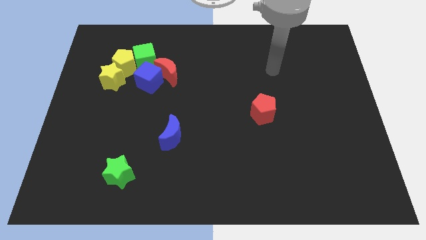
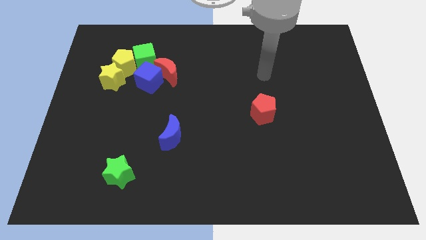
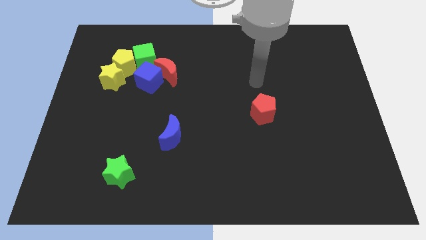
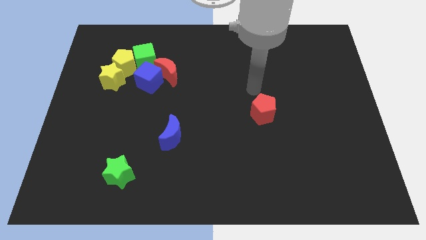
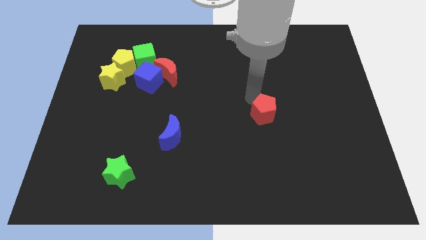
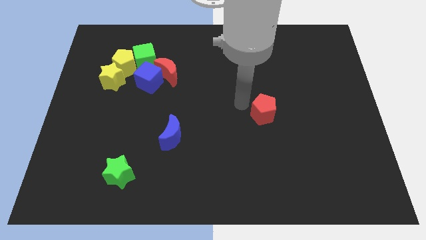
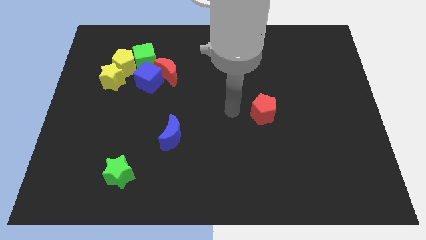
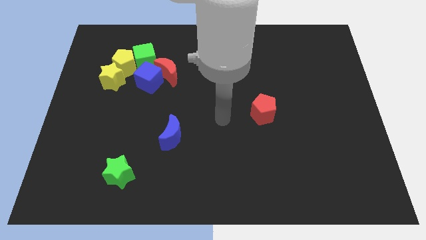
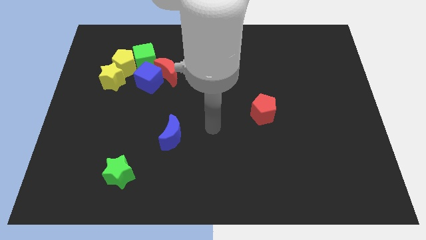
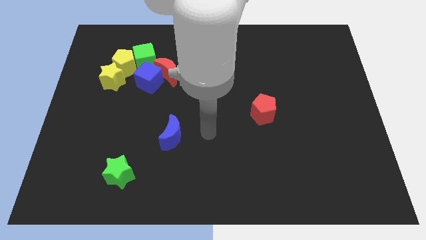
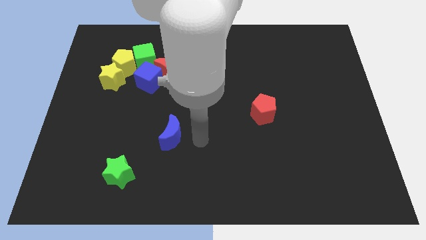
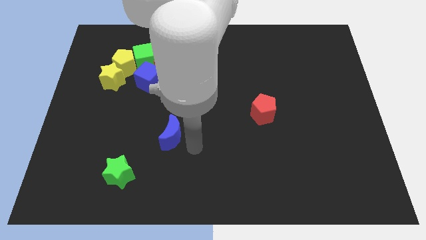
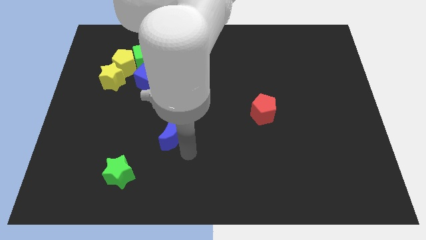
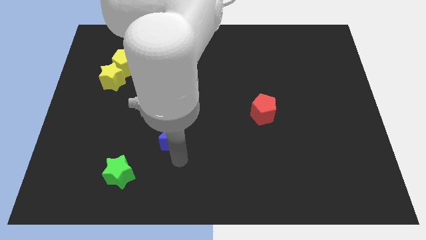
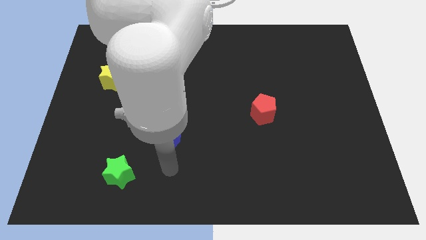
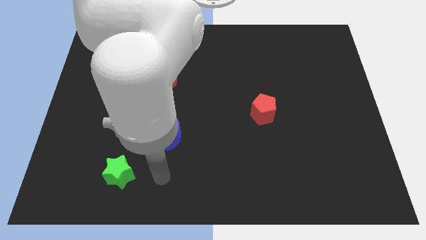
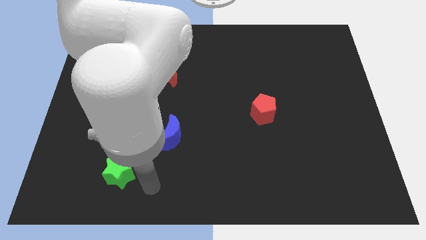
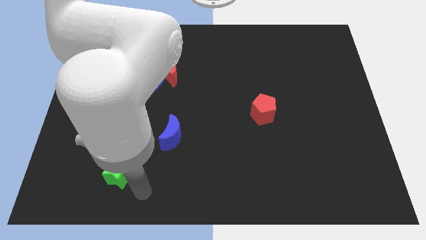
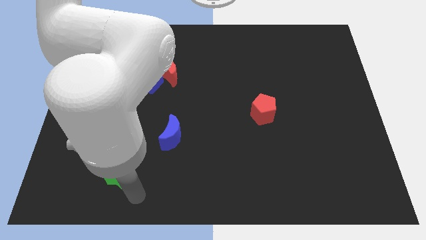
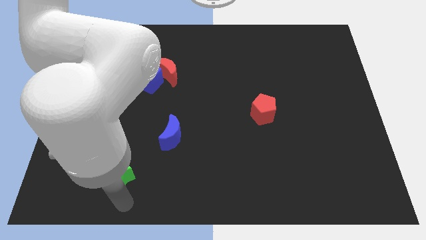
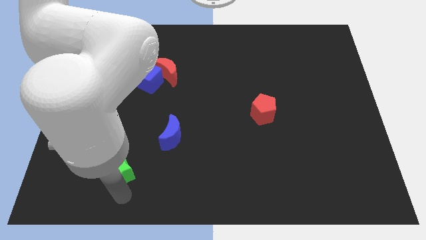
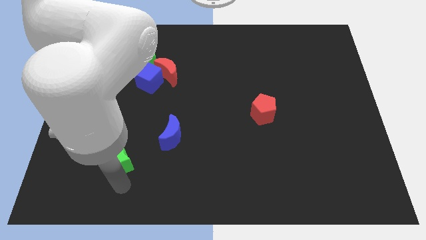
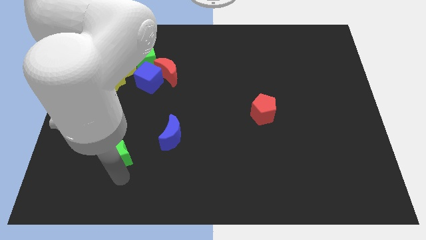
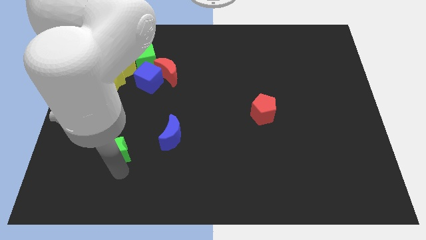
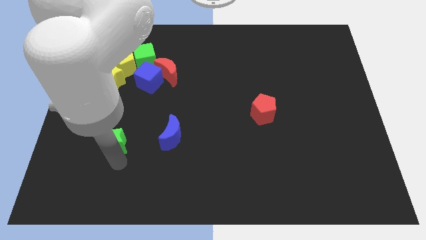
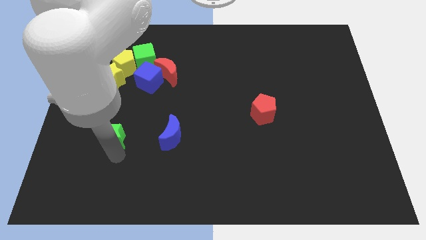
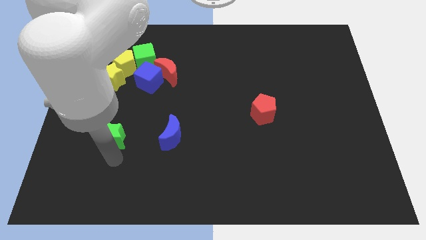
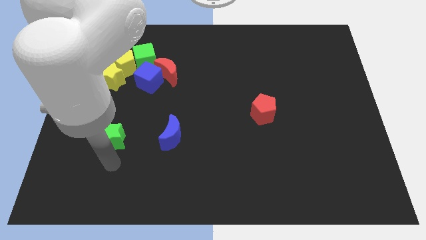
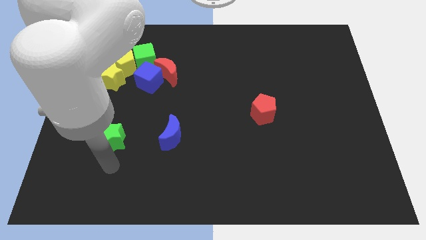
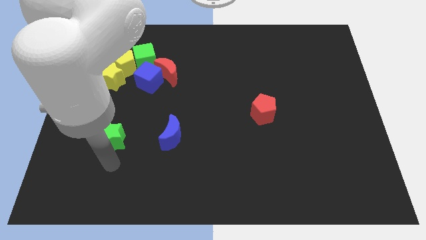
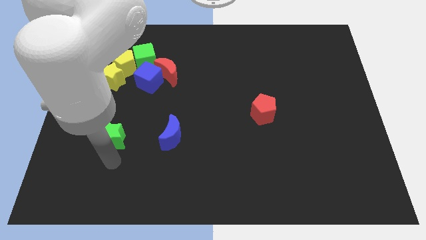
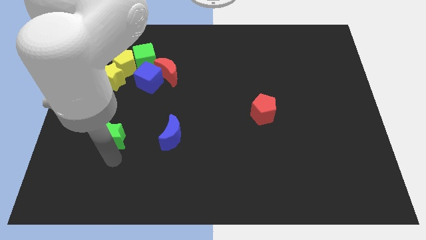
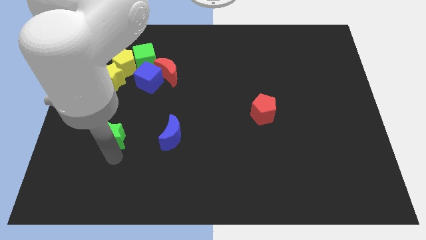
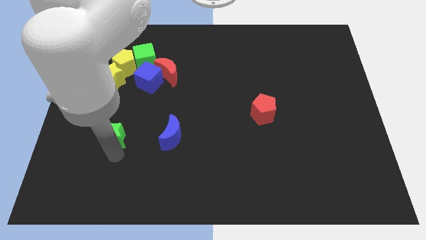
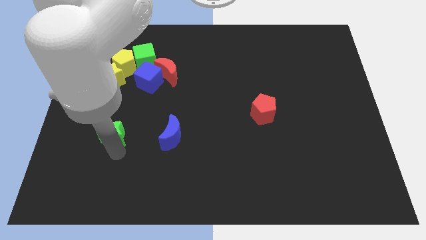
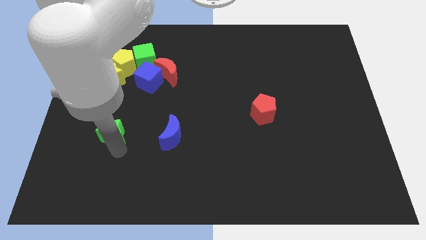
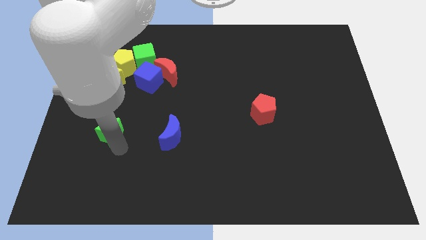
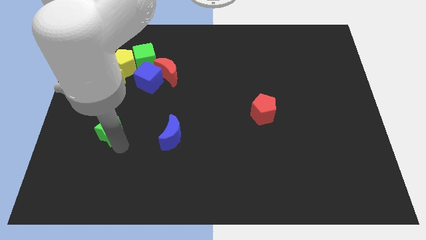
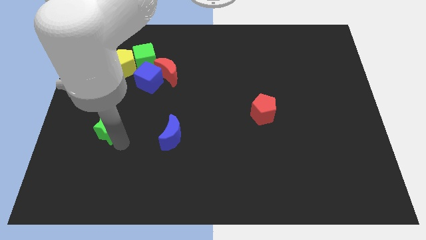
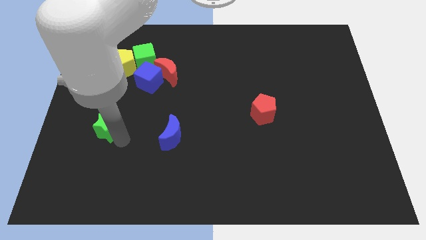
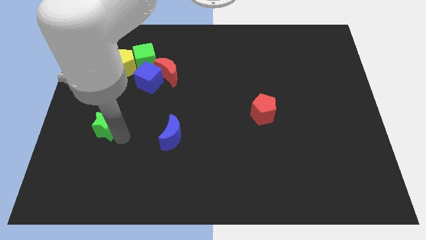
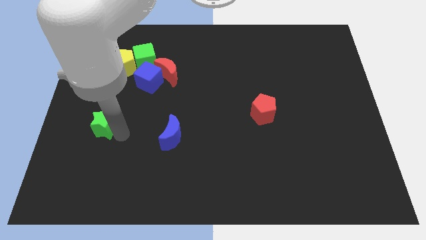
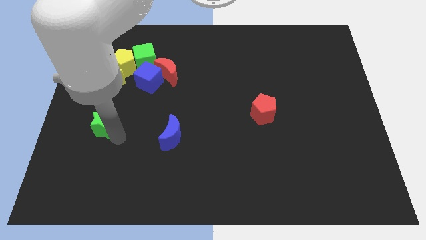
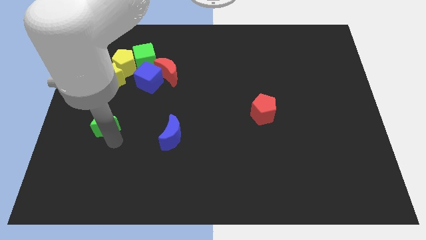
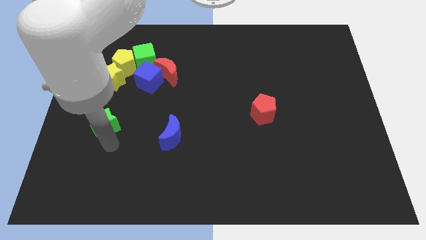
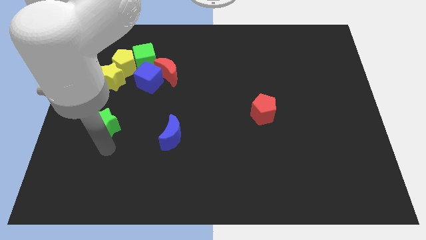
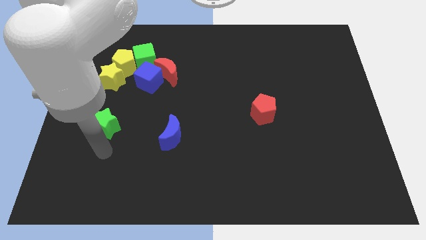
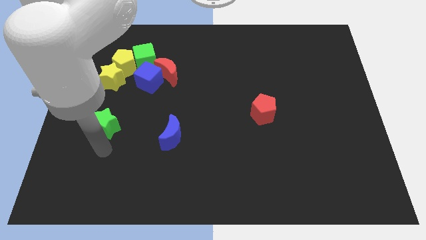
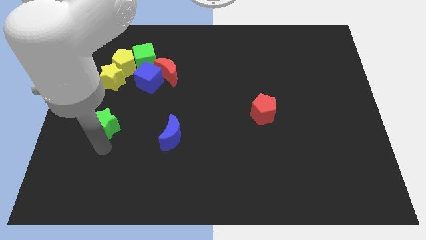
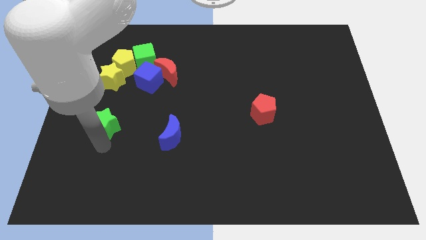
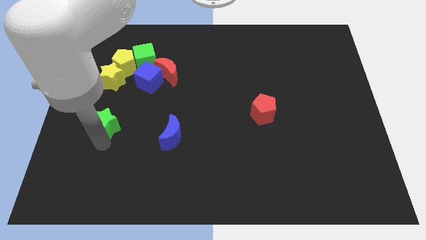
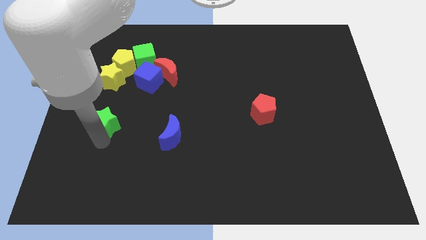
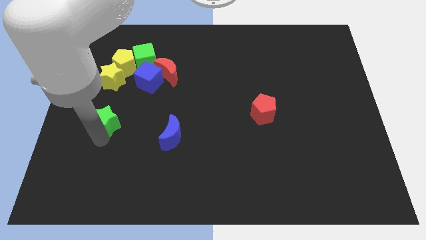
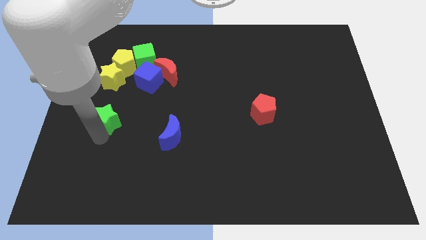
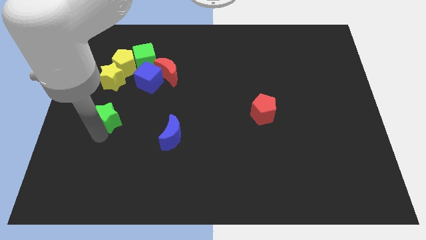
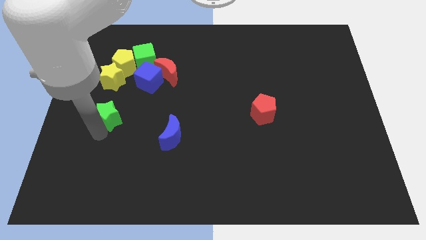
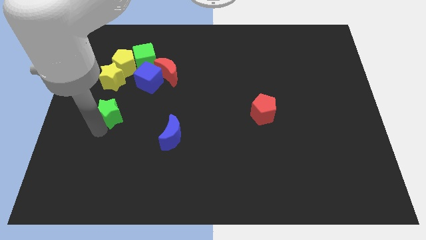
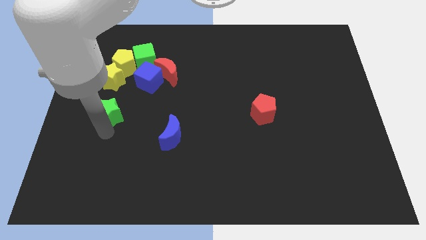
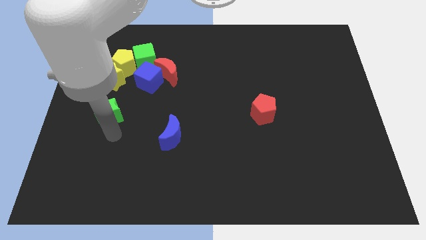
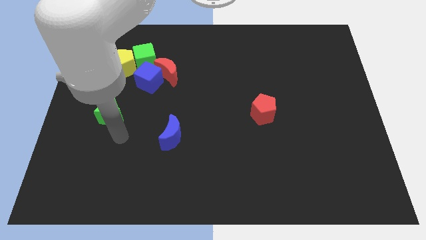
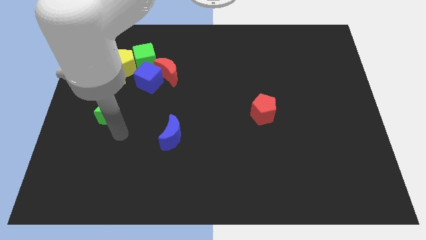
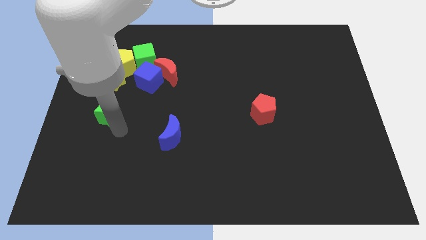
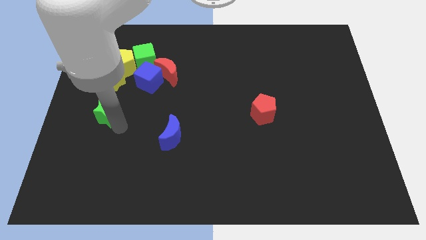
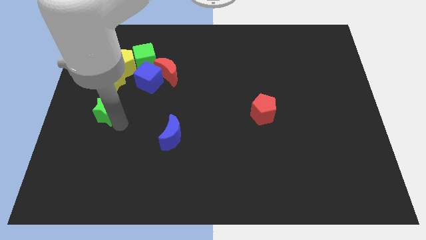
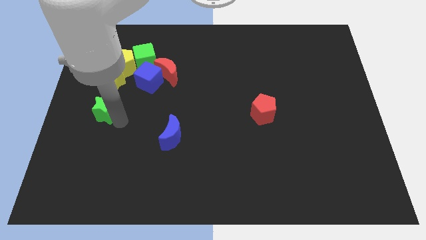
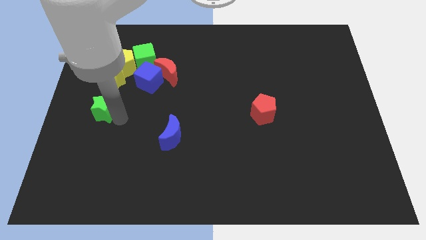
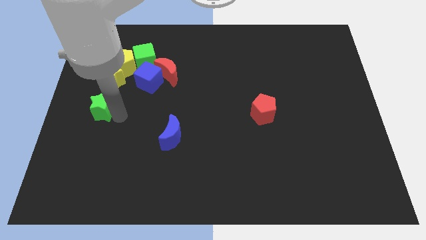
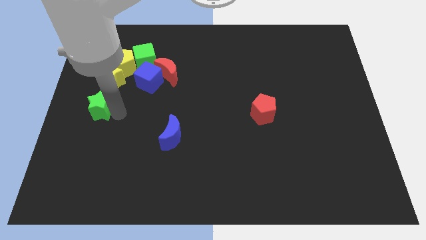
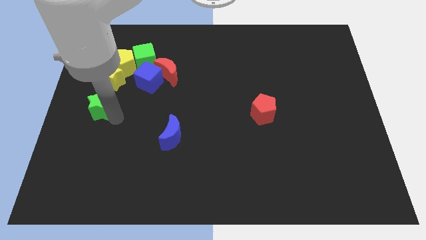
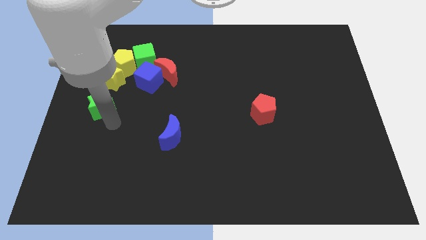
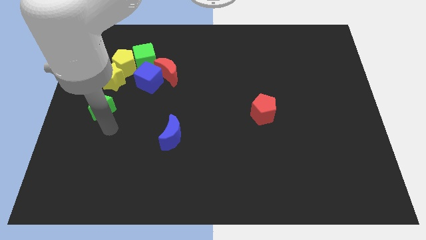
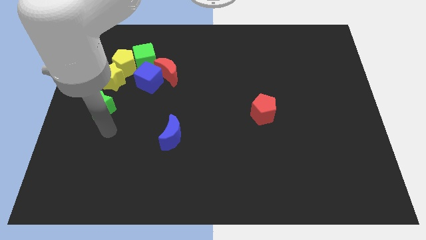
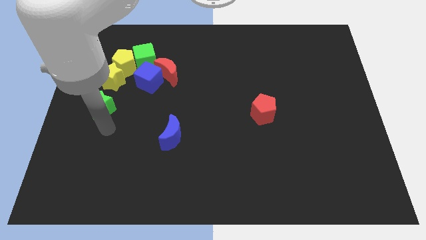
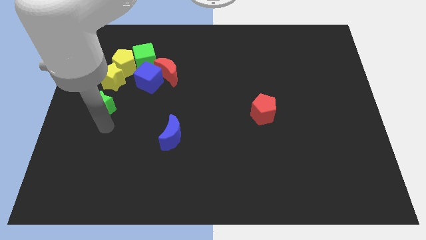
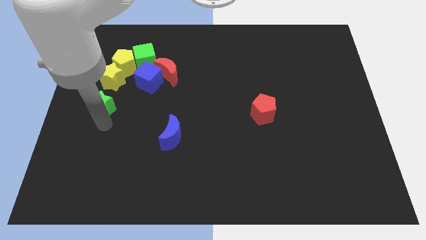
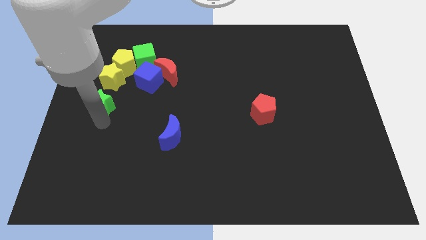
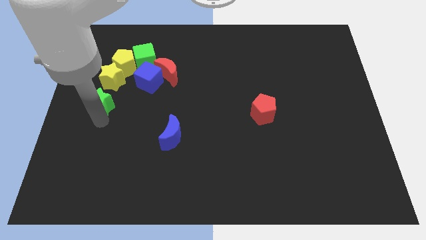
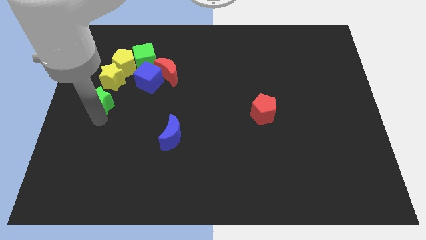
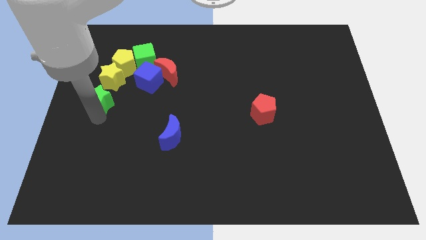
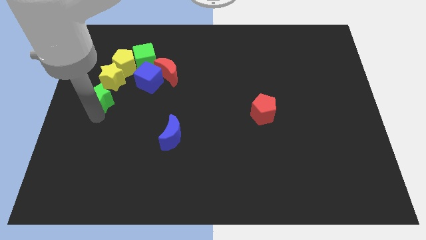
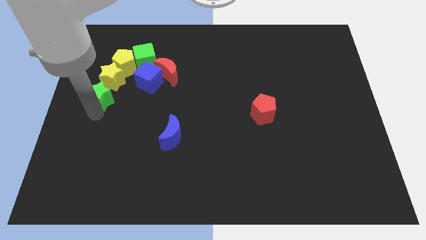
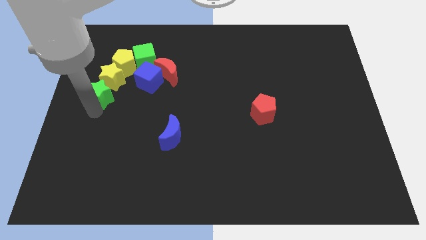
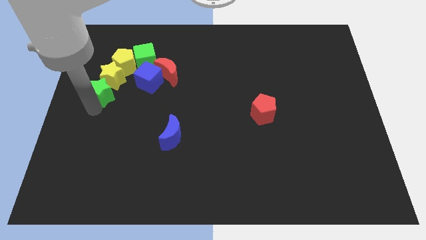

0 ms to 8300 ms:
push the green star to the bottom left side of the yellow pentagon
